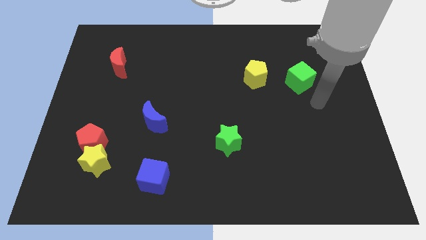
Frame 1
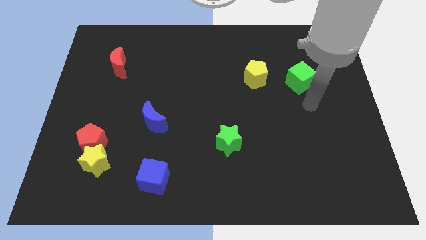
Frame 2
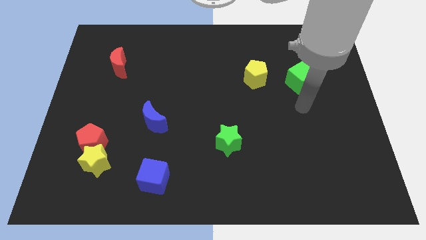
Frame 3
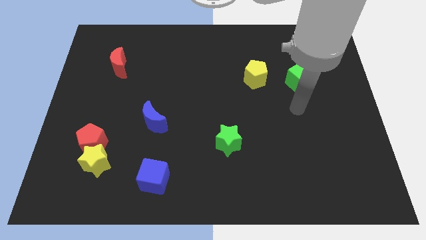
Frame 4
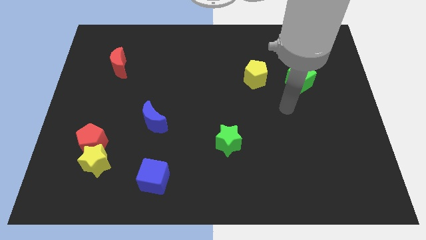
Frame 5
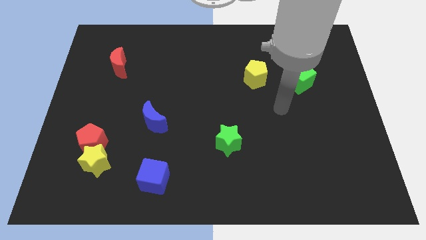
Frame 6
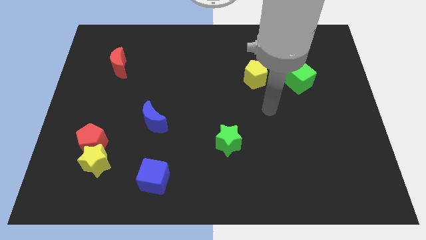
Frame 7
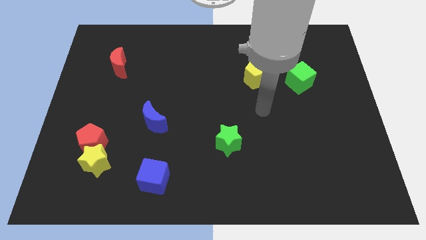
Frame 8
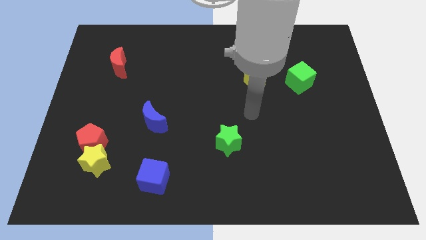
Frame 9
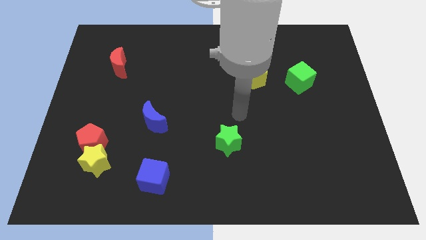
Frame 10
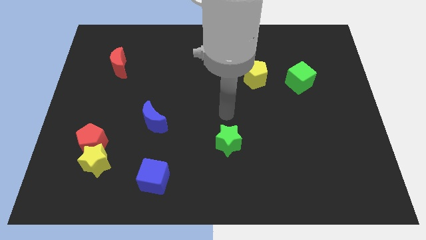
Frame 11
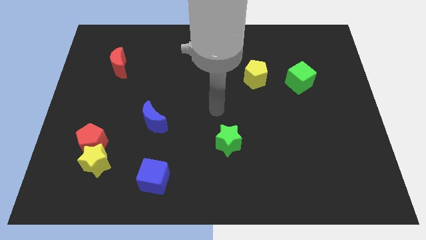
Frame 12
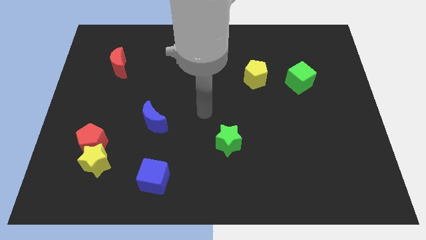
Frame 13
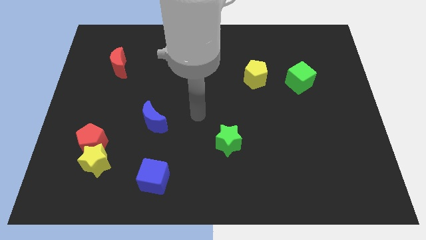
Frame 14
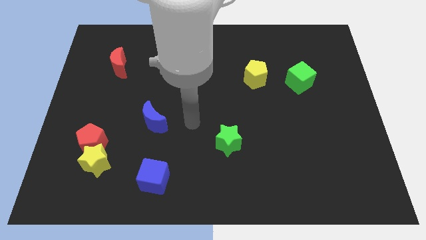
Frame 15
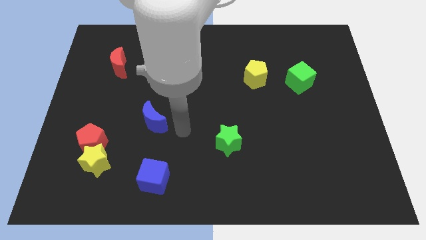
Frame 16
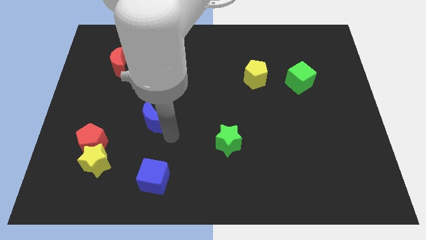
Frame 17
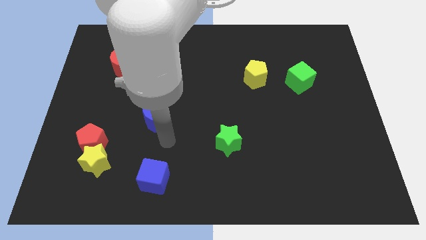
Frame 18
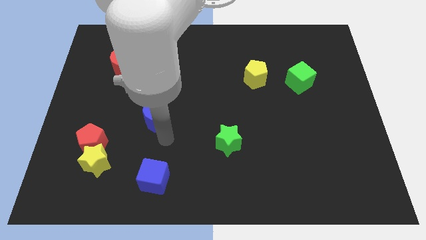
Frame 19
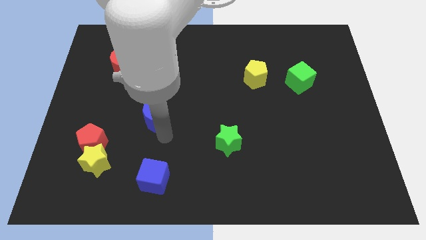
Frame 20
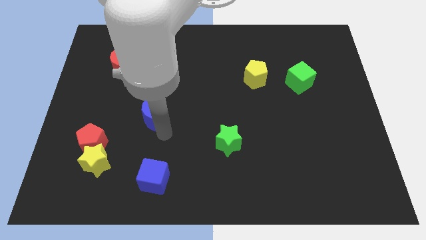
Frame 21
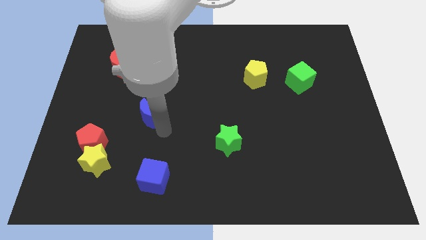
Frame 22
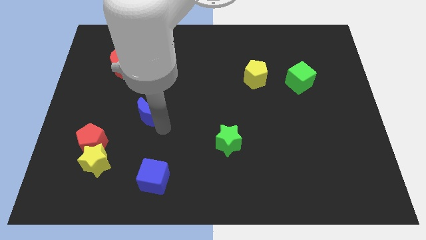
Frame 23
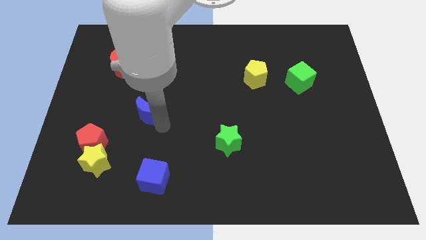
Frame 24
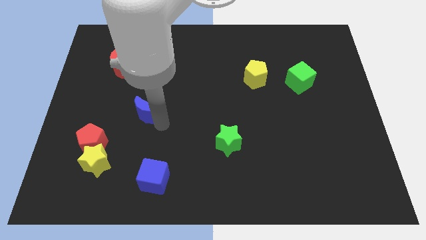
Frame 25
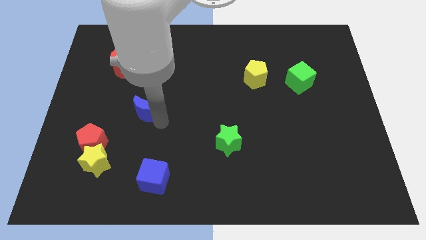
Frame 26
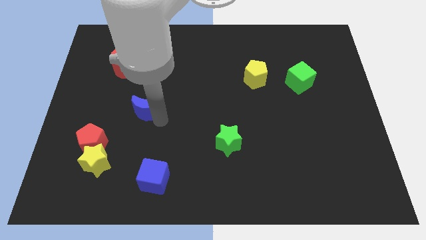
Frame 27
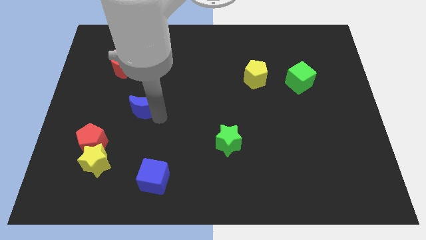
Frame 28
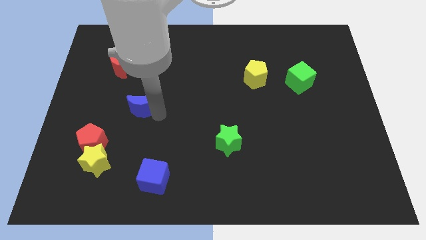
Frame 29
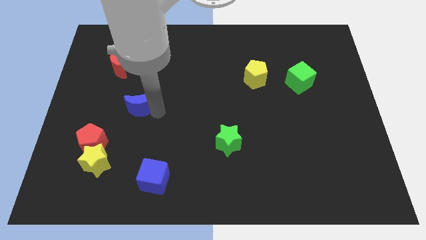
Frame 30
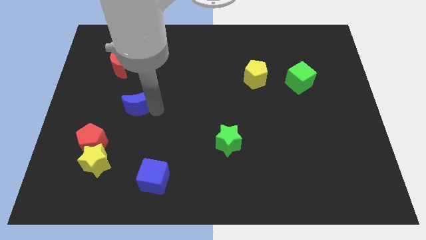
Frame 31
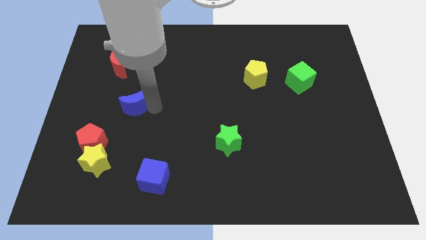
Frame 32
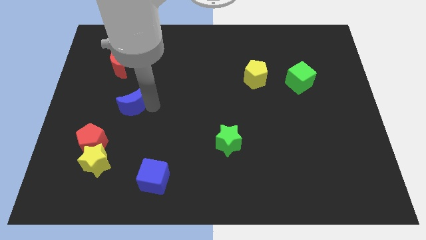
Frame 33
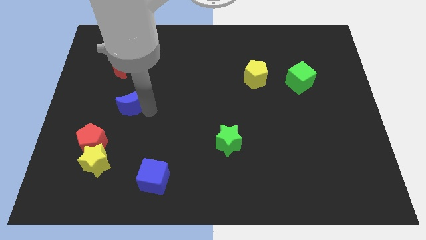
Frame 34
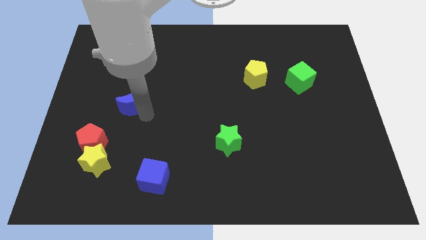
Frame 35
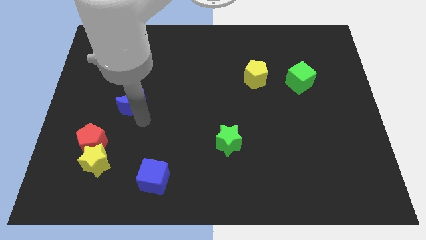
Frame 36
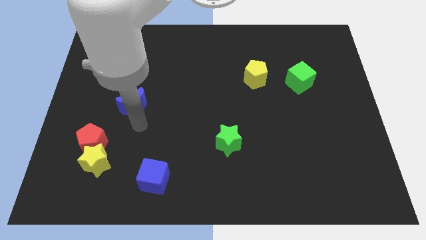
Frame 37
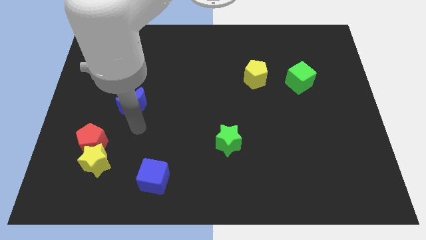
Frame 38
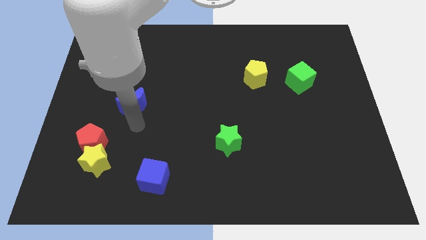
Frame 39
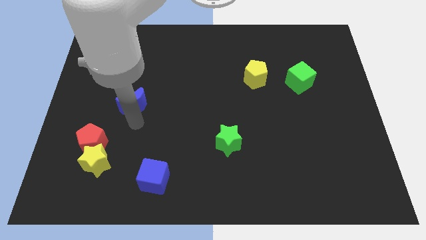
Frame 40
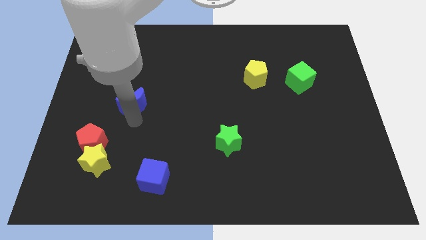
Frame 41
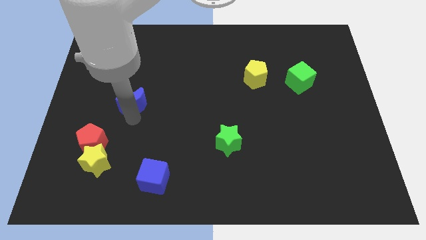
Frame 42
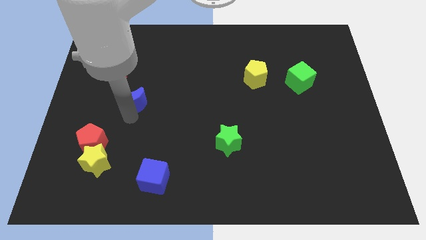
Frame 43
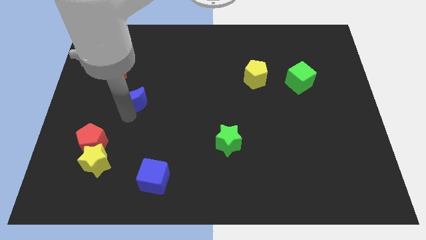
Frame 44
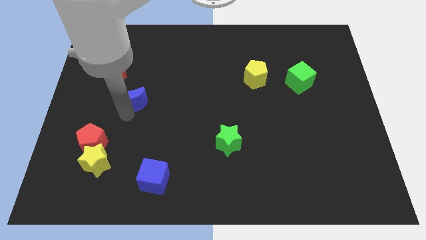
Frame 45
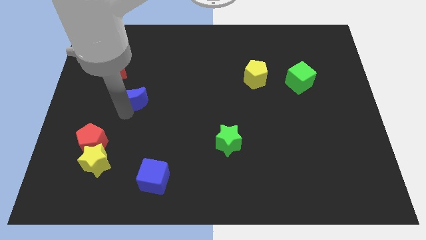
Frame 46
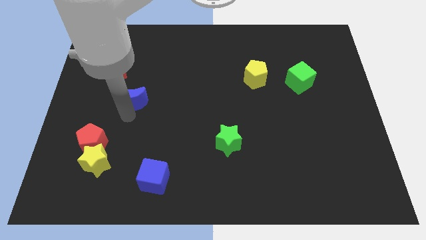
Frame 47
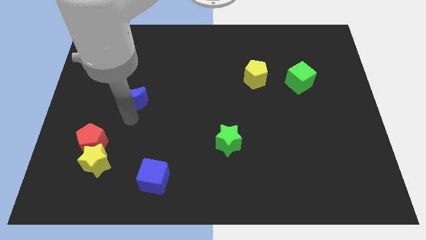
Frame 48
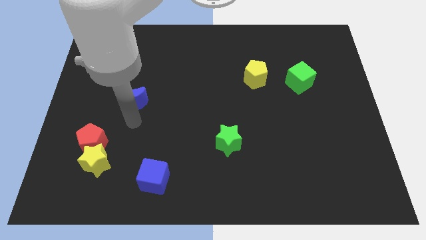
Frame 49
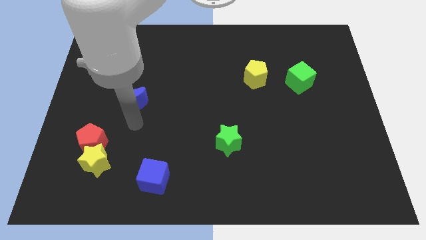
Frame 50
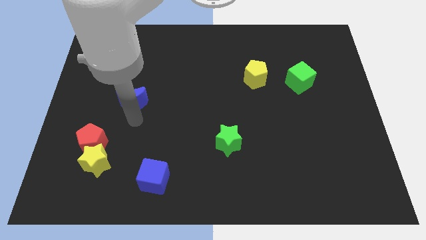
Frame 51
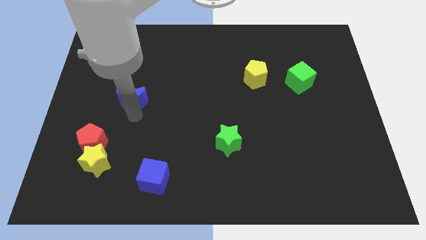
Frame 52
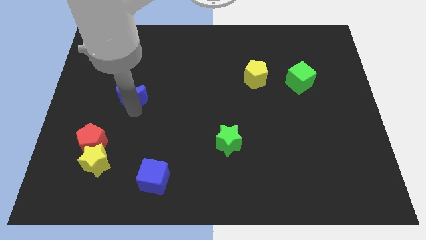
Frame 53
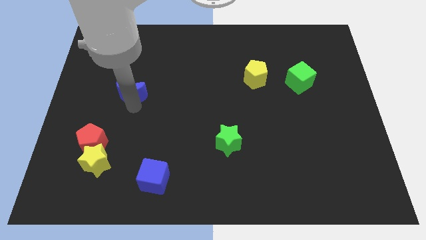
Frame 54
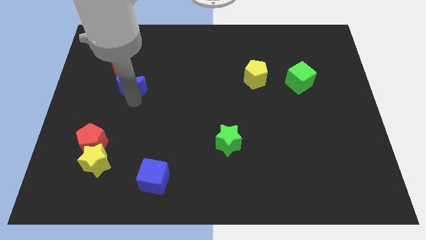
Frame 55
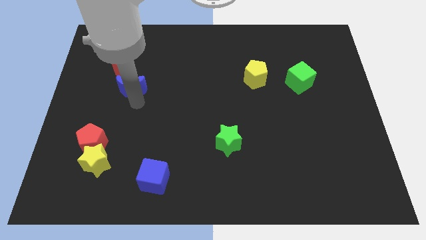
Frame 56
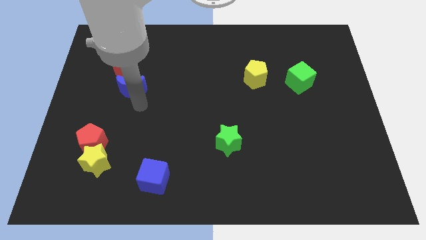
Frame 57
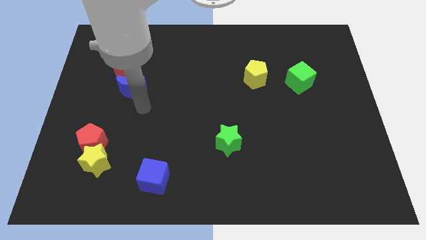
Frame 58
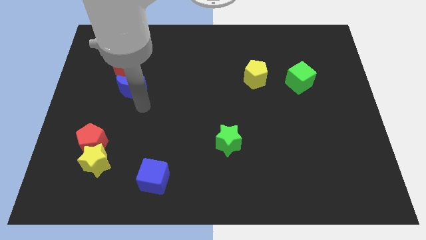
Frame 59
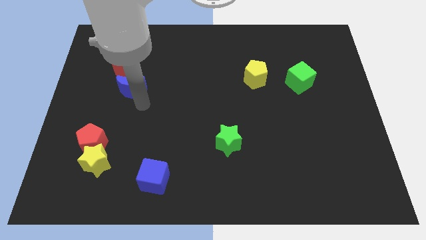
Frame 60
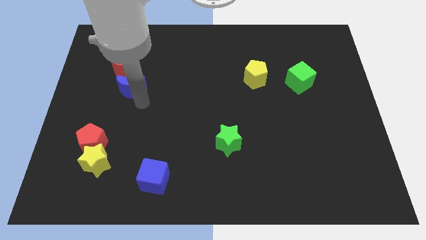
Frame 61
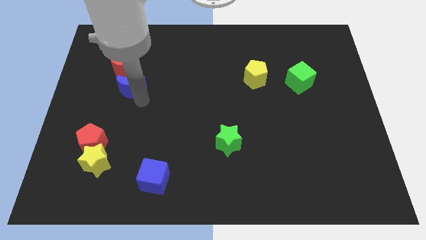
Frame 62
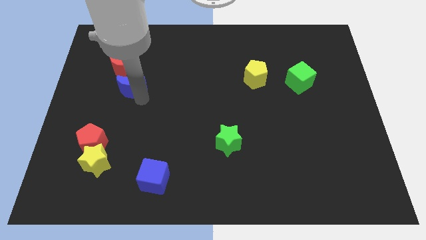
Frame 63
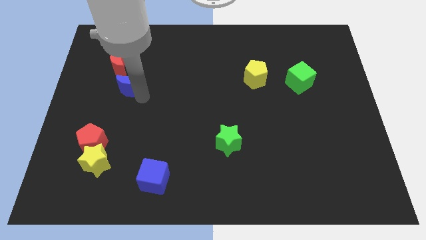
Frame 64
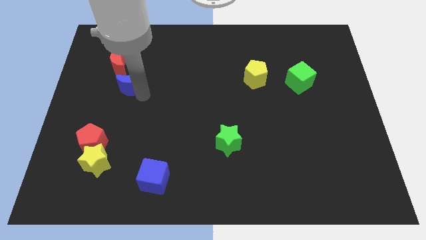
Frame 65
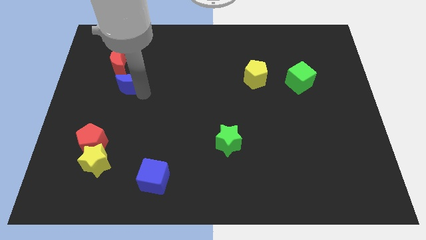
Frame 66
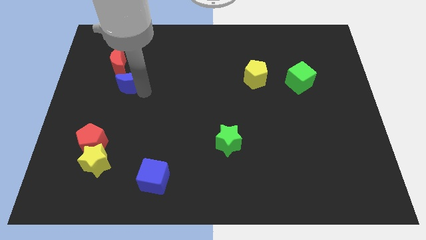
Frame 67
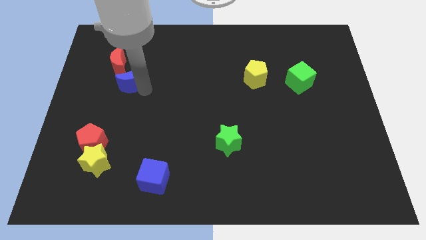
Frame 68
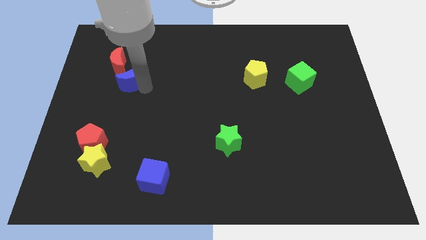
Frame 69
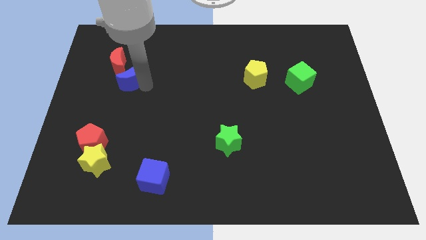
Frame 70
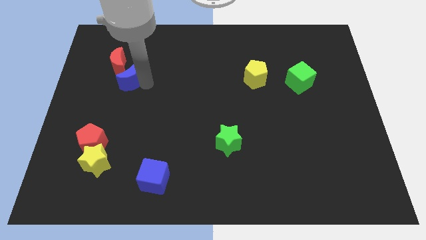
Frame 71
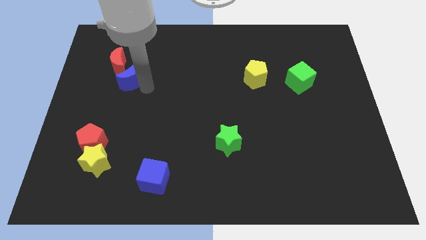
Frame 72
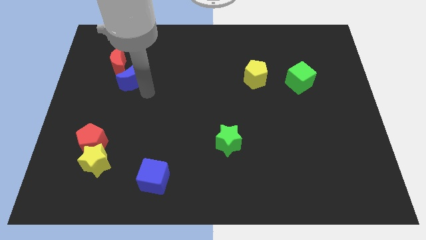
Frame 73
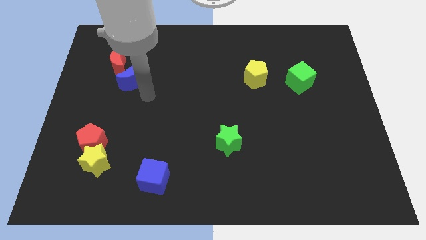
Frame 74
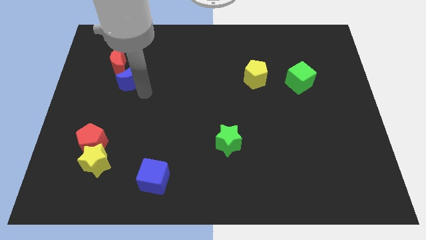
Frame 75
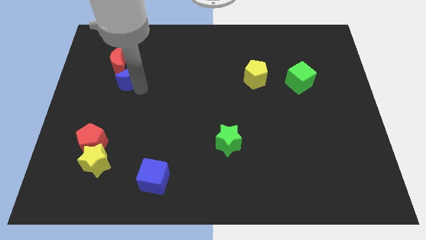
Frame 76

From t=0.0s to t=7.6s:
slide the blue moon close to the red moon
